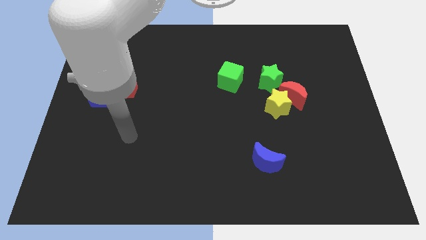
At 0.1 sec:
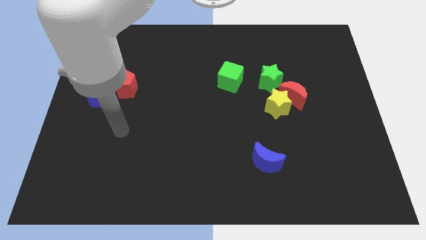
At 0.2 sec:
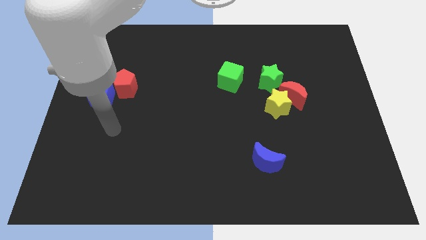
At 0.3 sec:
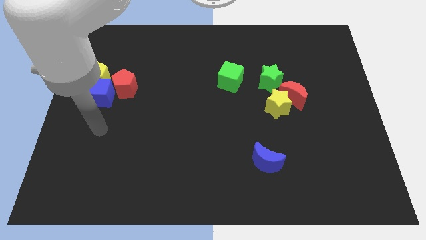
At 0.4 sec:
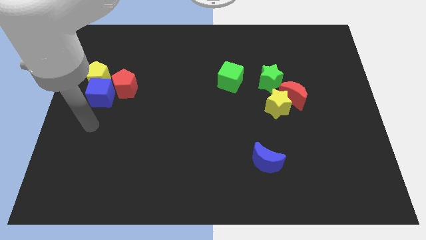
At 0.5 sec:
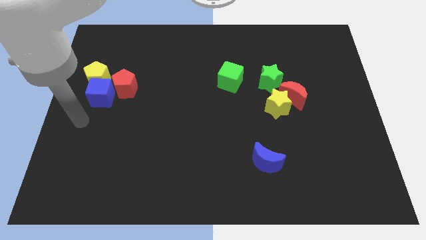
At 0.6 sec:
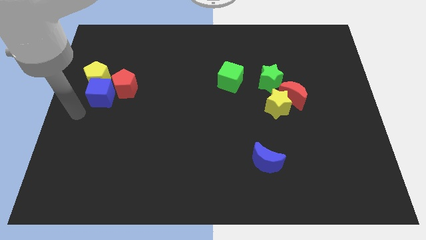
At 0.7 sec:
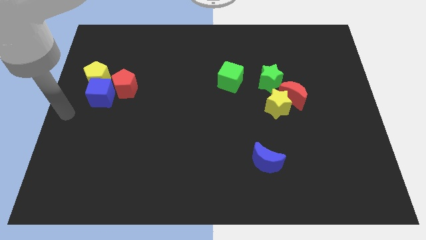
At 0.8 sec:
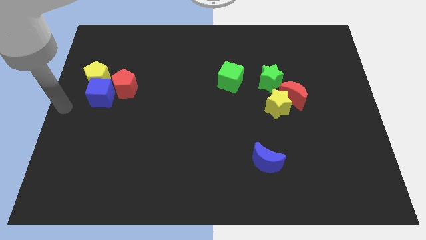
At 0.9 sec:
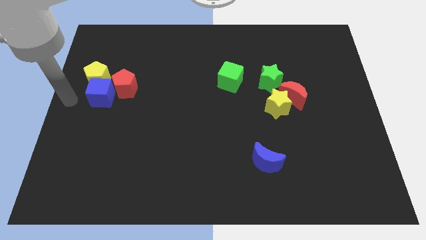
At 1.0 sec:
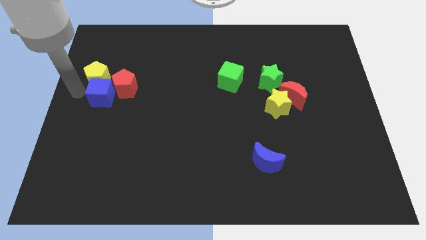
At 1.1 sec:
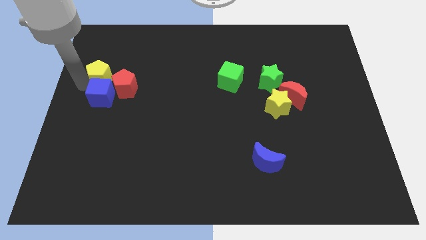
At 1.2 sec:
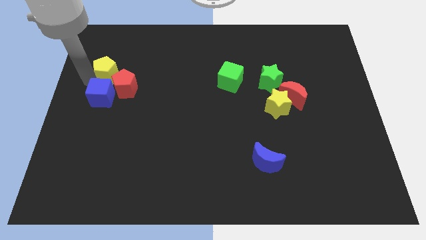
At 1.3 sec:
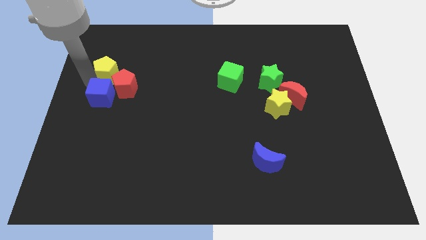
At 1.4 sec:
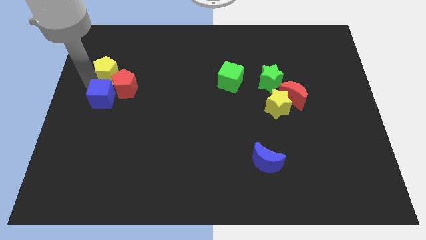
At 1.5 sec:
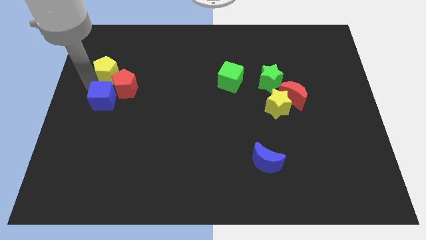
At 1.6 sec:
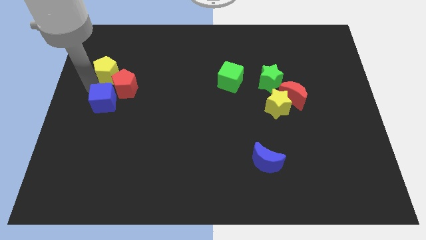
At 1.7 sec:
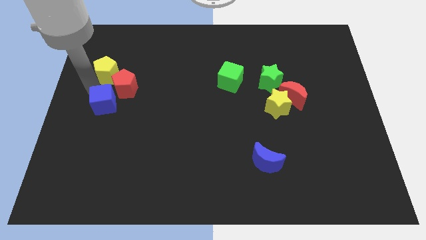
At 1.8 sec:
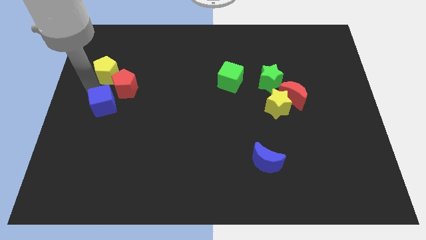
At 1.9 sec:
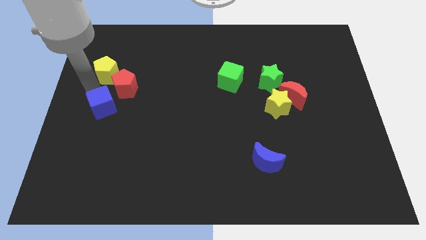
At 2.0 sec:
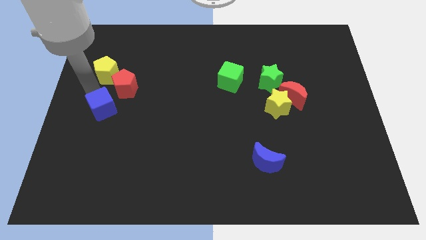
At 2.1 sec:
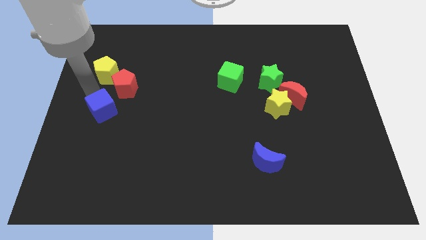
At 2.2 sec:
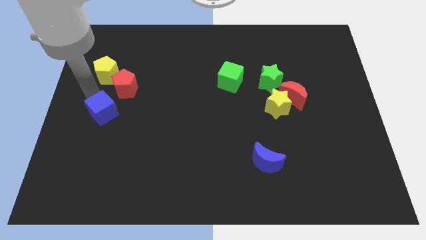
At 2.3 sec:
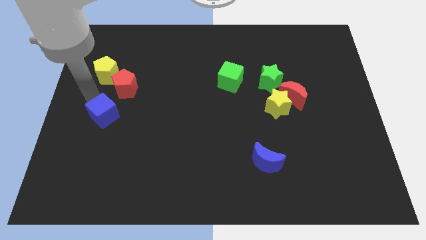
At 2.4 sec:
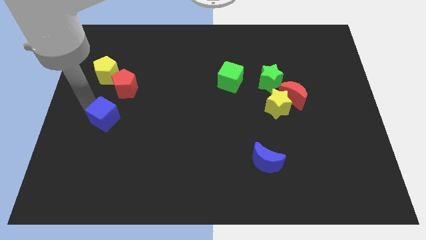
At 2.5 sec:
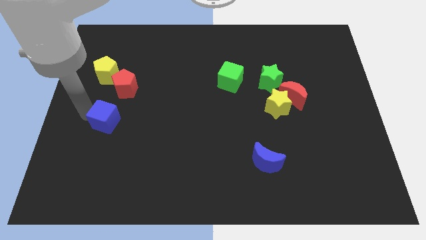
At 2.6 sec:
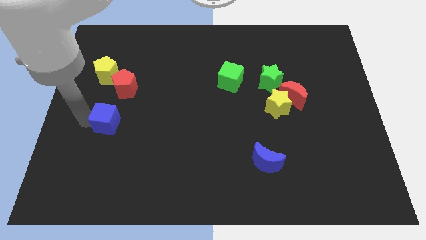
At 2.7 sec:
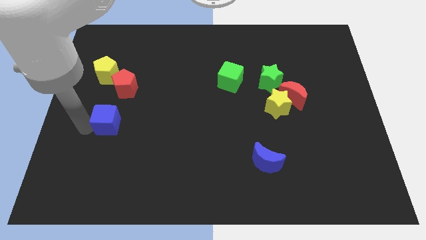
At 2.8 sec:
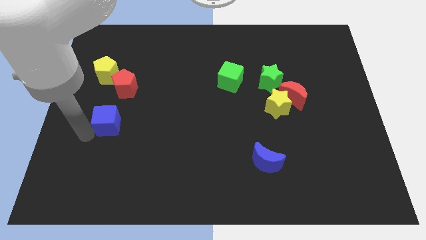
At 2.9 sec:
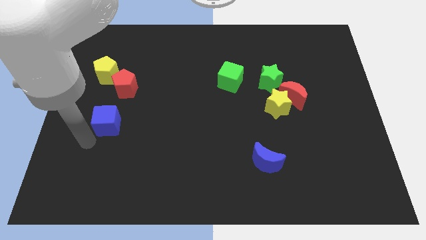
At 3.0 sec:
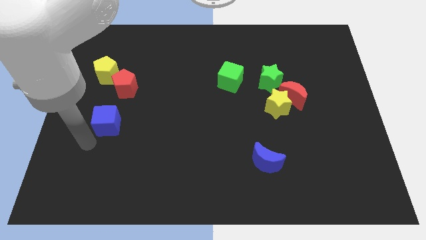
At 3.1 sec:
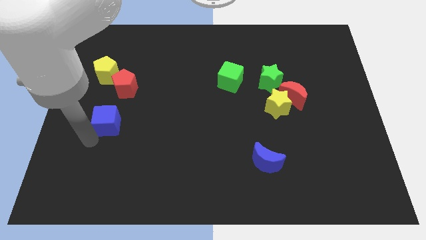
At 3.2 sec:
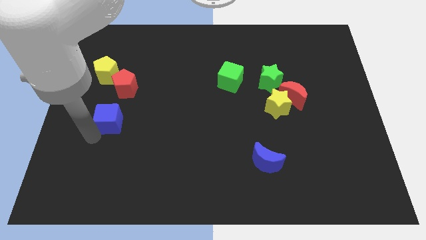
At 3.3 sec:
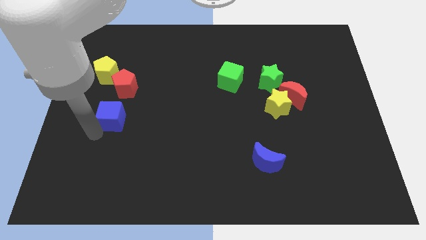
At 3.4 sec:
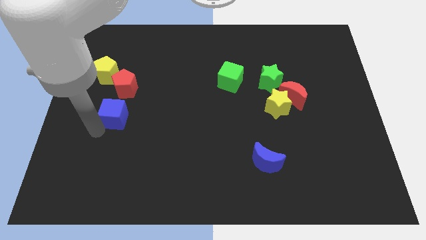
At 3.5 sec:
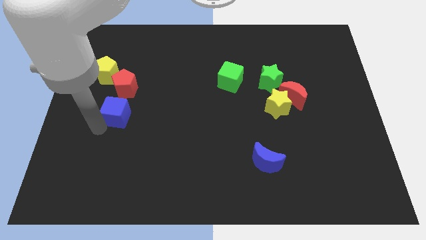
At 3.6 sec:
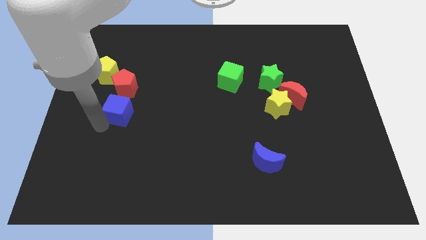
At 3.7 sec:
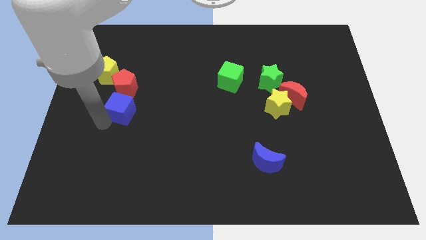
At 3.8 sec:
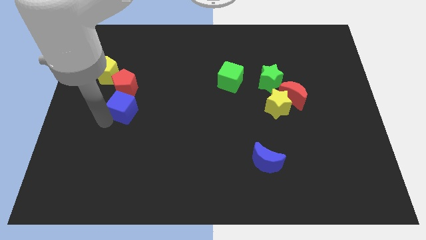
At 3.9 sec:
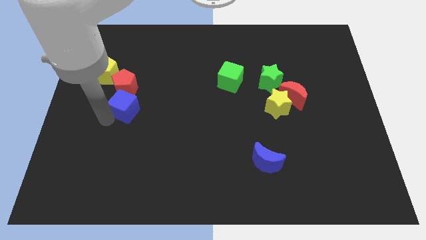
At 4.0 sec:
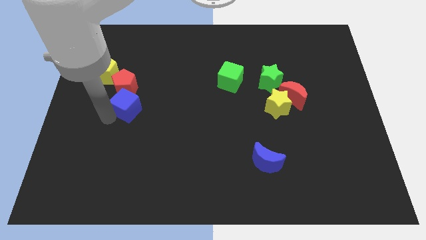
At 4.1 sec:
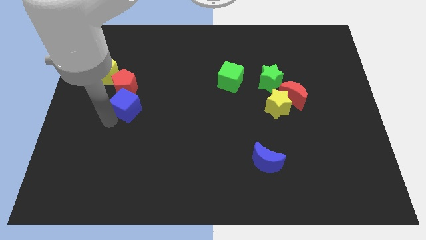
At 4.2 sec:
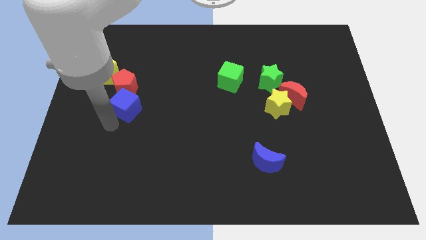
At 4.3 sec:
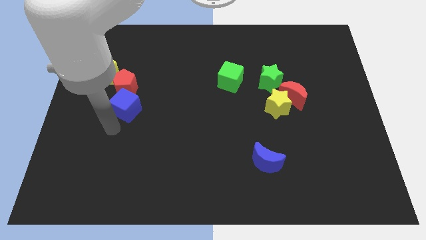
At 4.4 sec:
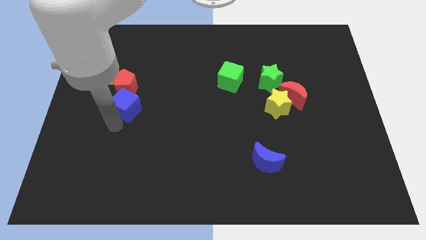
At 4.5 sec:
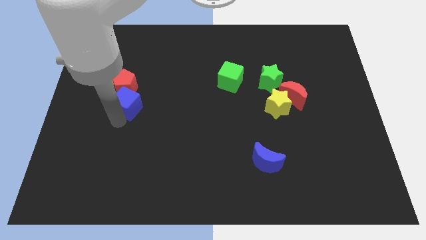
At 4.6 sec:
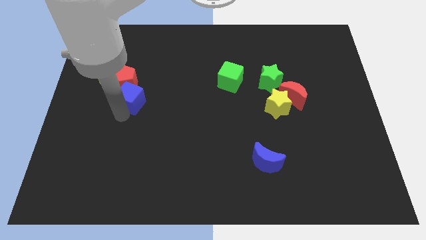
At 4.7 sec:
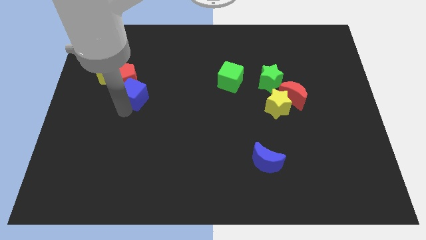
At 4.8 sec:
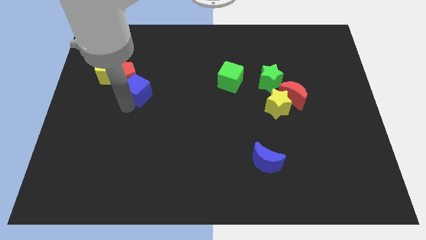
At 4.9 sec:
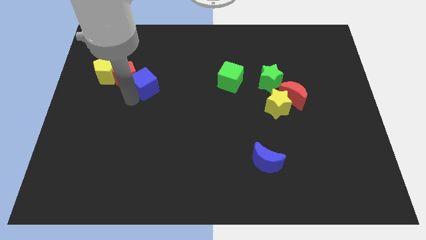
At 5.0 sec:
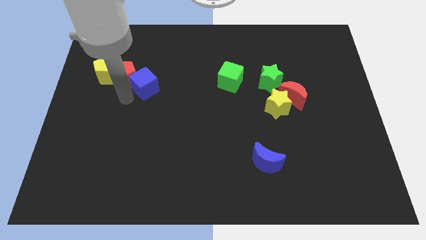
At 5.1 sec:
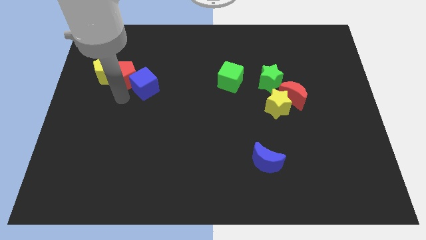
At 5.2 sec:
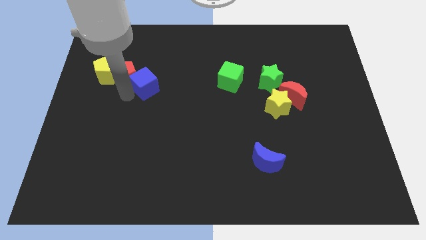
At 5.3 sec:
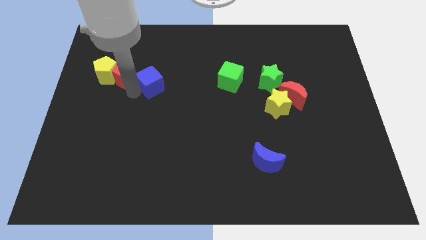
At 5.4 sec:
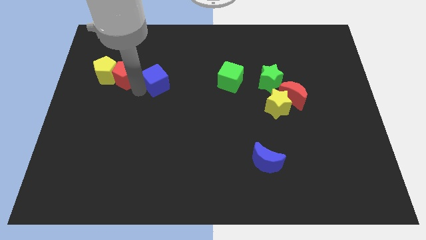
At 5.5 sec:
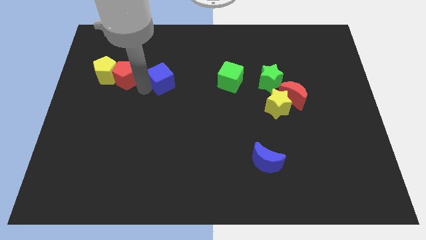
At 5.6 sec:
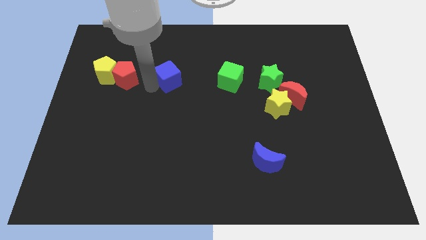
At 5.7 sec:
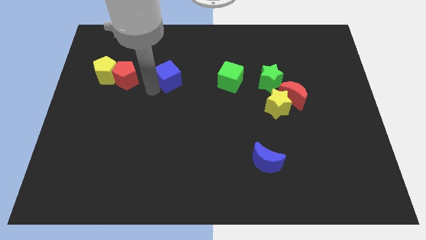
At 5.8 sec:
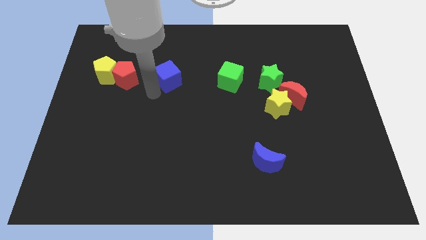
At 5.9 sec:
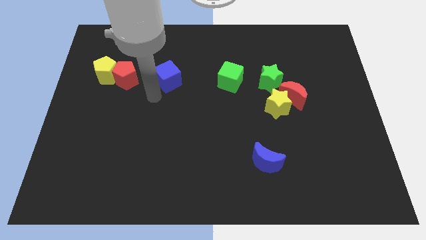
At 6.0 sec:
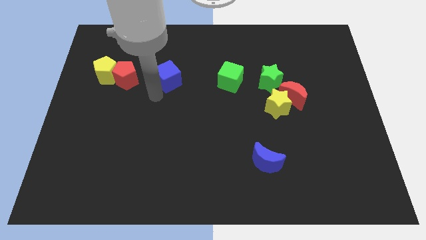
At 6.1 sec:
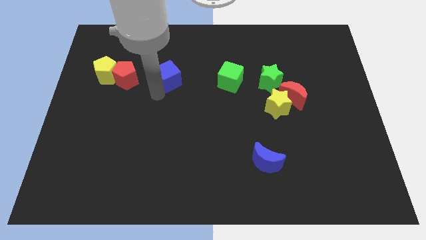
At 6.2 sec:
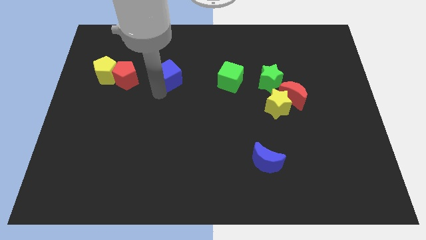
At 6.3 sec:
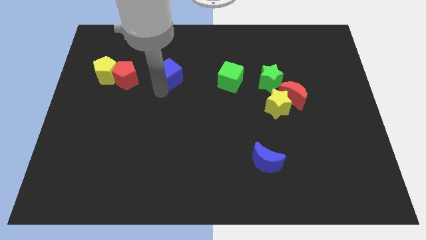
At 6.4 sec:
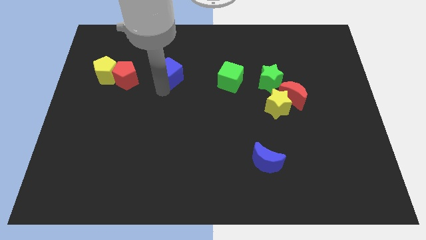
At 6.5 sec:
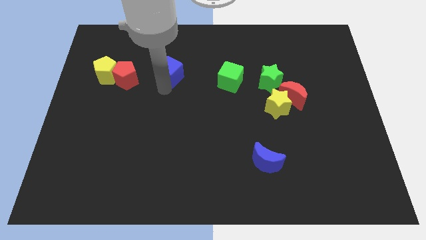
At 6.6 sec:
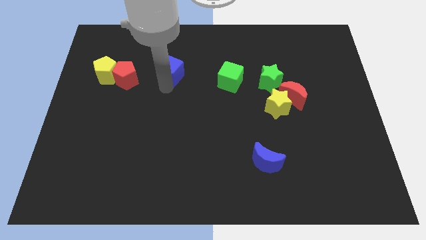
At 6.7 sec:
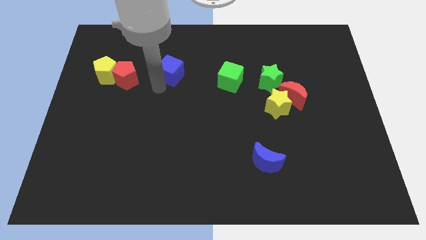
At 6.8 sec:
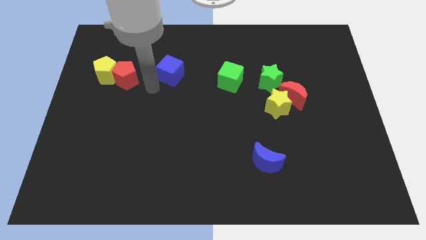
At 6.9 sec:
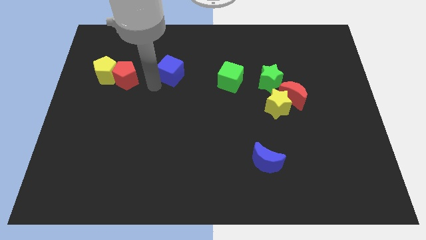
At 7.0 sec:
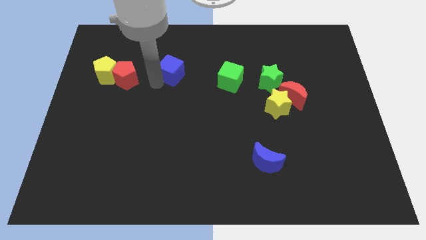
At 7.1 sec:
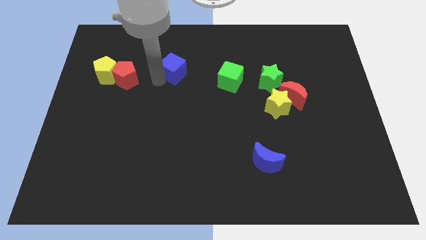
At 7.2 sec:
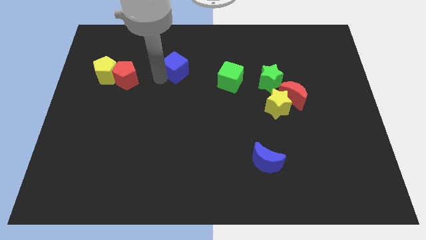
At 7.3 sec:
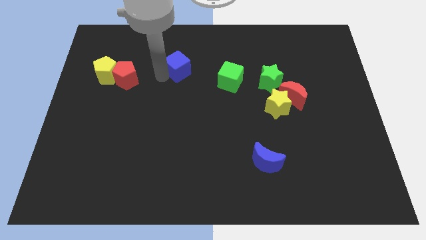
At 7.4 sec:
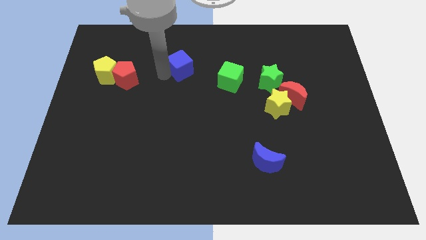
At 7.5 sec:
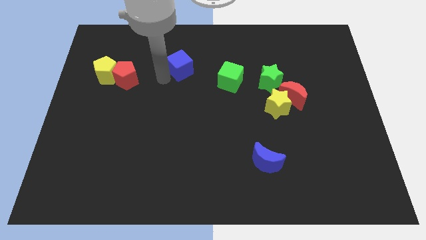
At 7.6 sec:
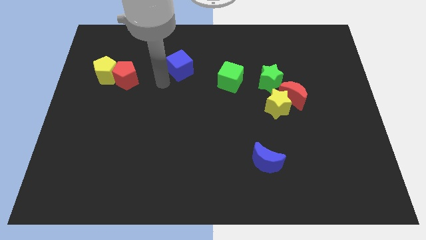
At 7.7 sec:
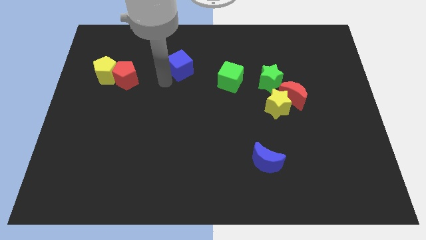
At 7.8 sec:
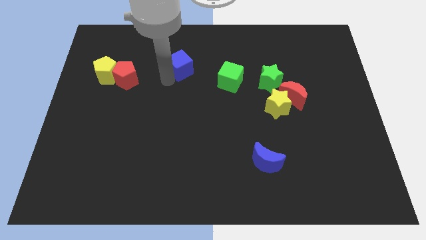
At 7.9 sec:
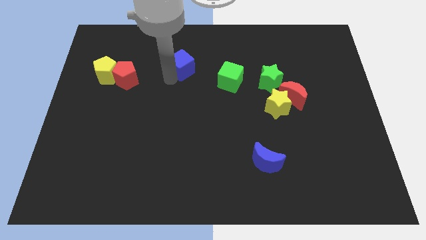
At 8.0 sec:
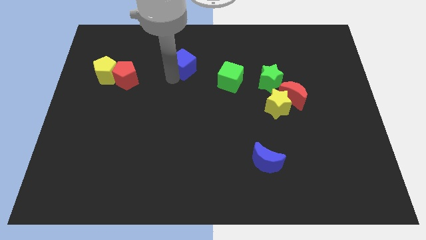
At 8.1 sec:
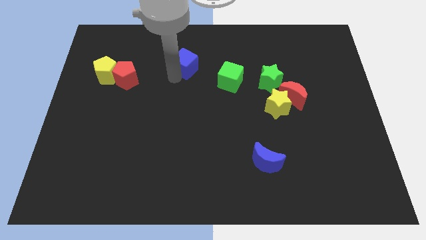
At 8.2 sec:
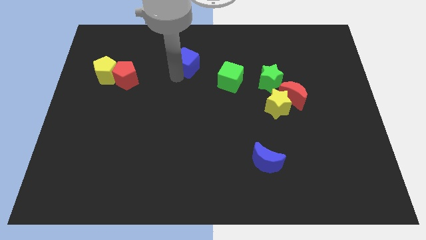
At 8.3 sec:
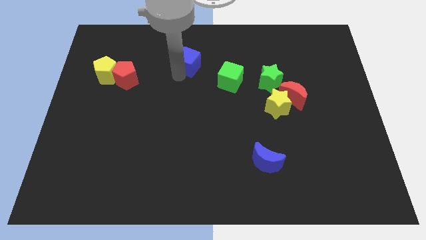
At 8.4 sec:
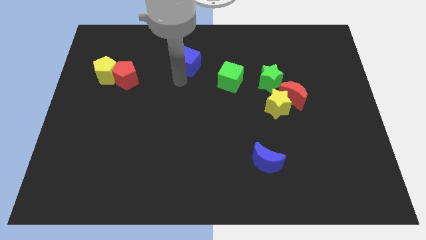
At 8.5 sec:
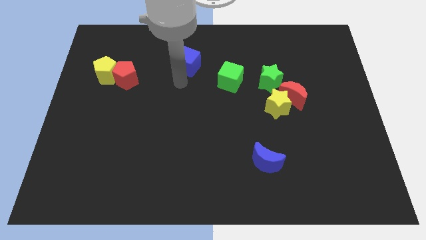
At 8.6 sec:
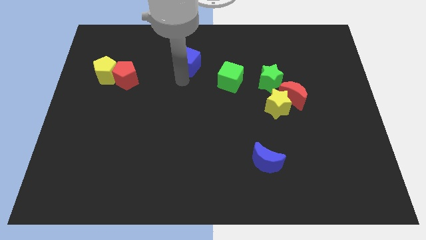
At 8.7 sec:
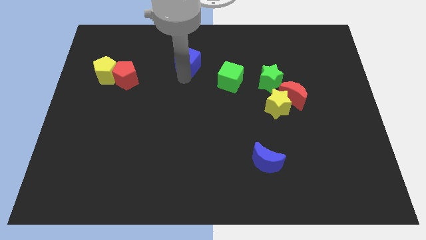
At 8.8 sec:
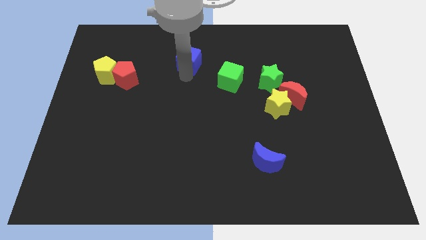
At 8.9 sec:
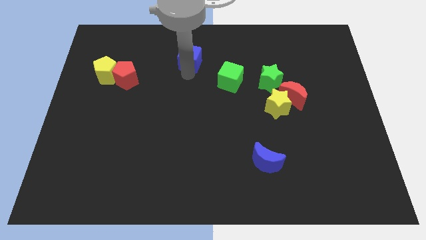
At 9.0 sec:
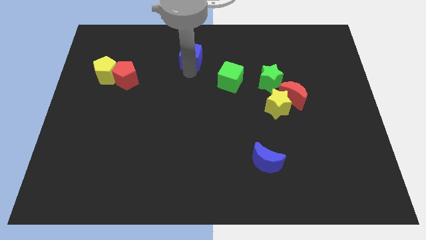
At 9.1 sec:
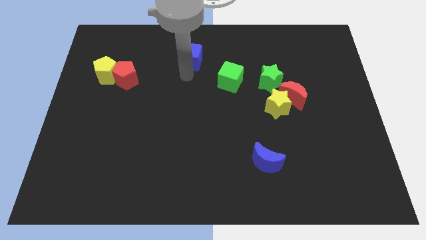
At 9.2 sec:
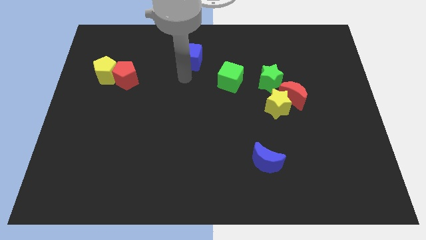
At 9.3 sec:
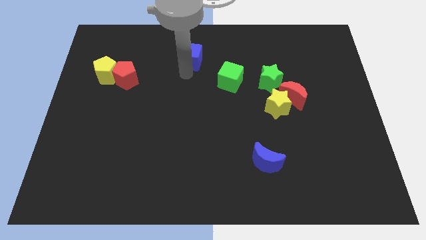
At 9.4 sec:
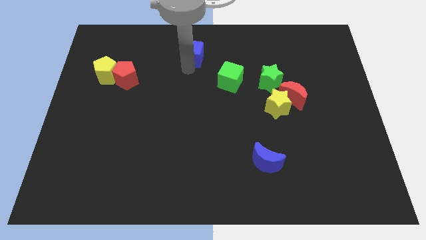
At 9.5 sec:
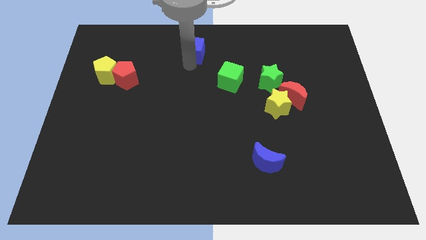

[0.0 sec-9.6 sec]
push the blue cube to the top
